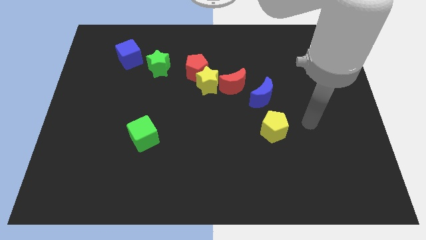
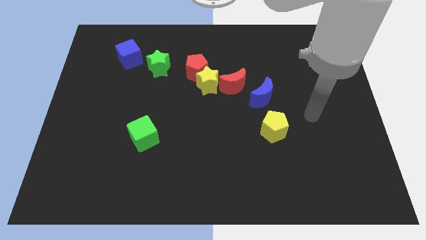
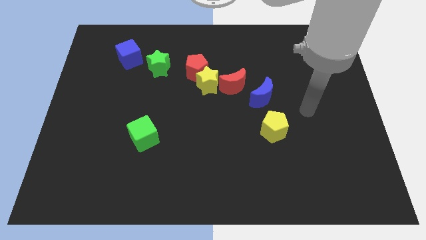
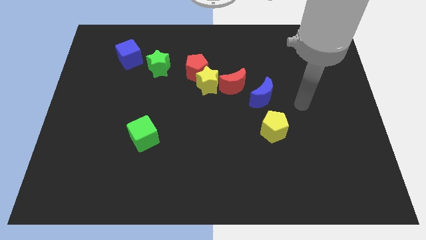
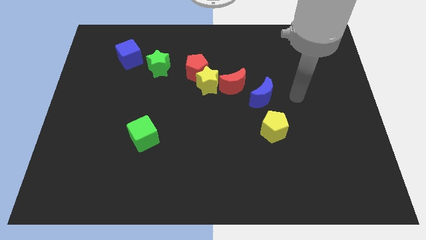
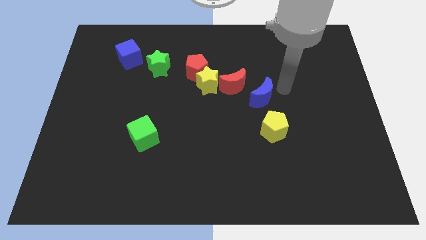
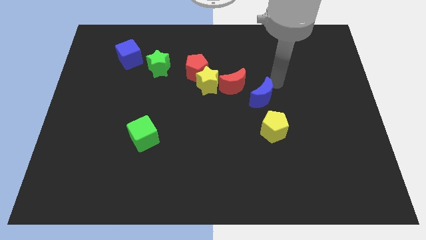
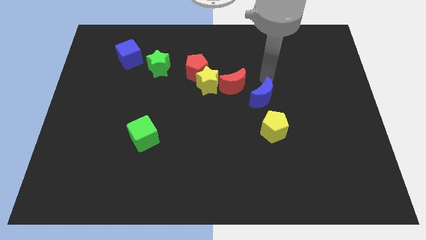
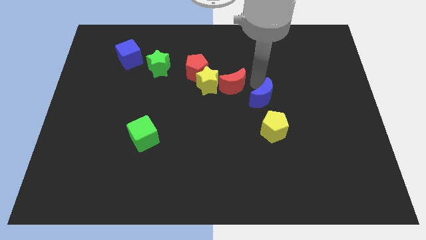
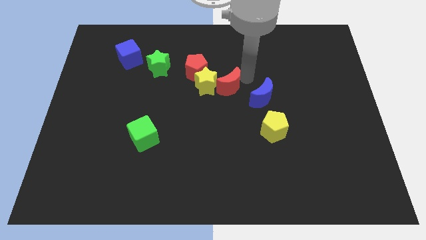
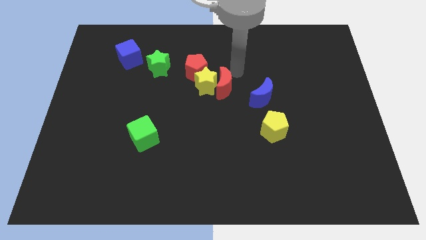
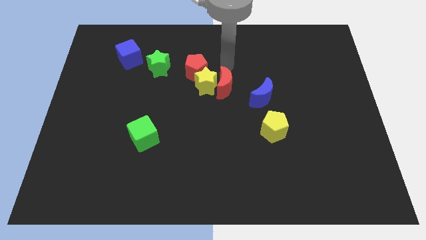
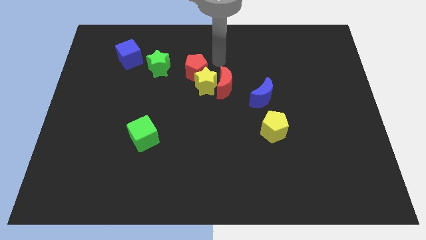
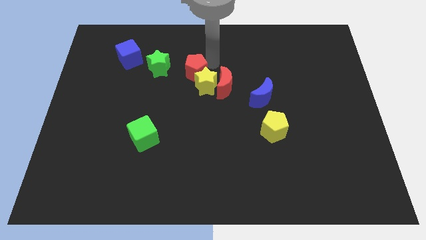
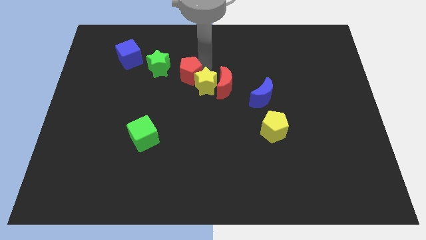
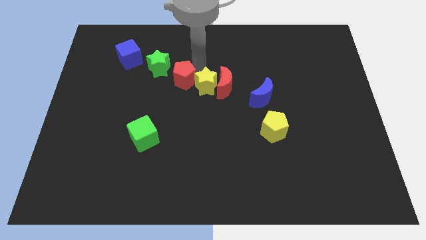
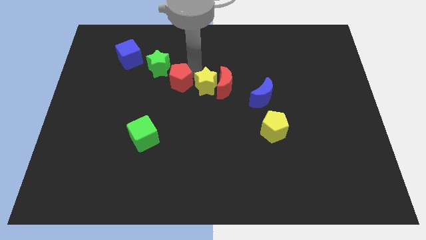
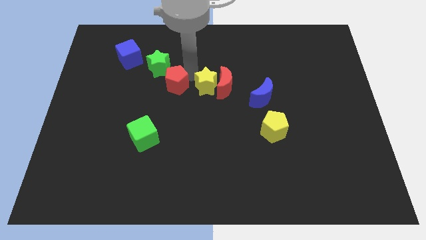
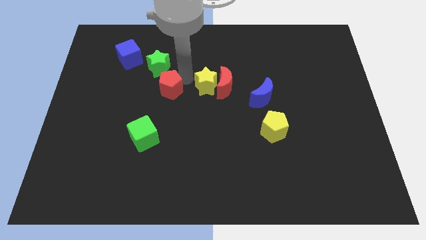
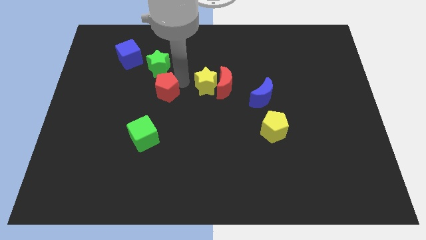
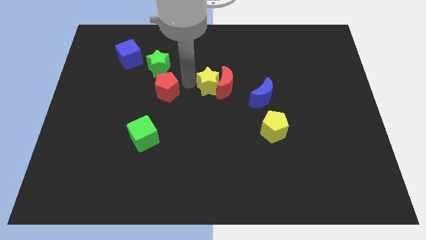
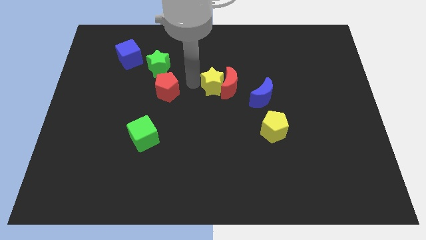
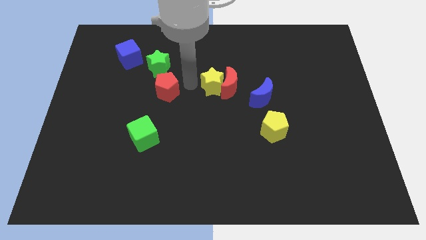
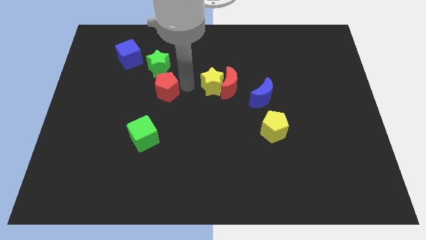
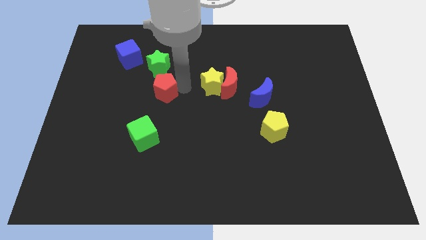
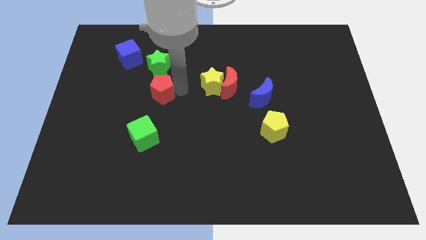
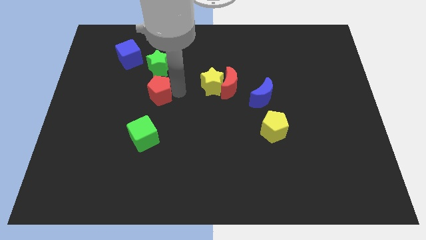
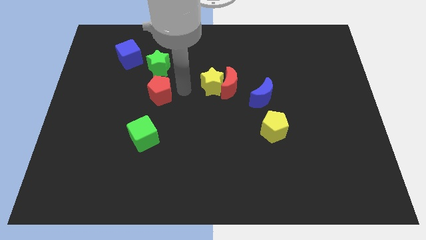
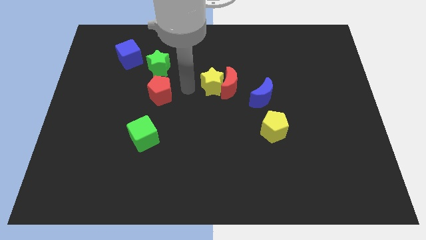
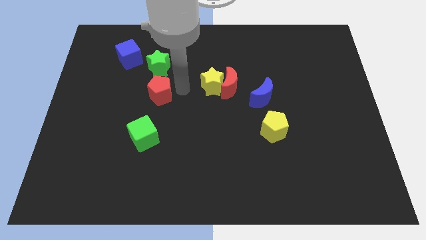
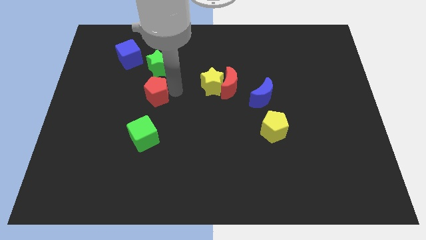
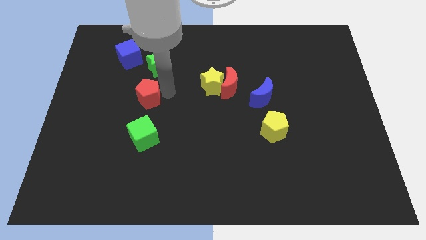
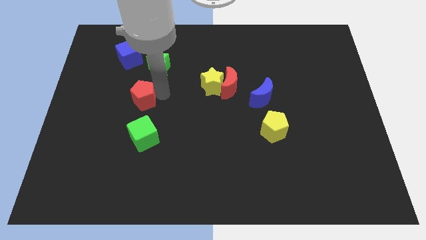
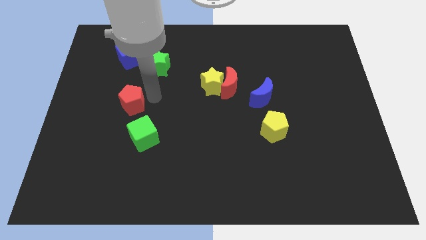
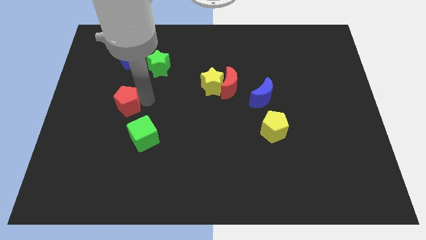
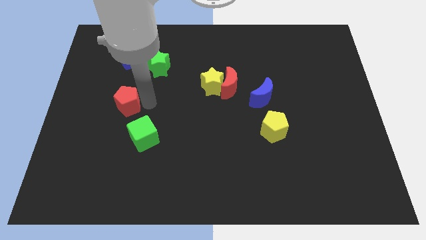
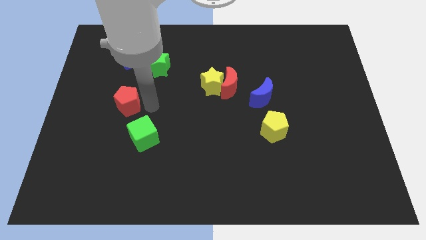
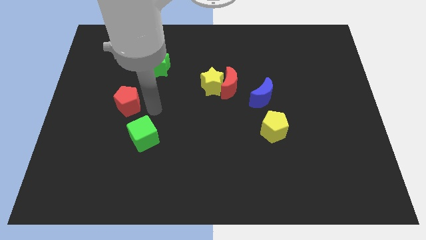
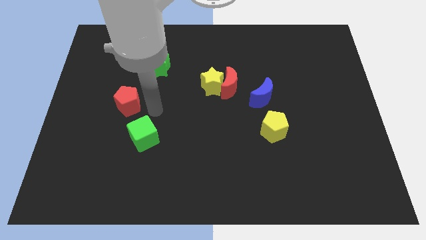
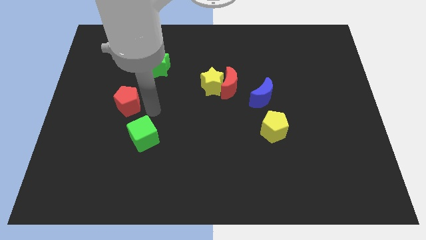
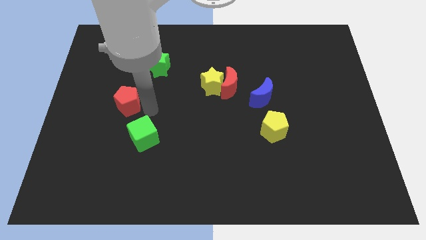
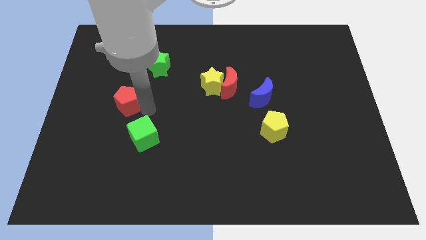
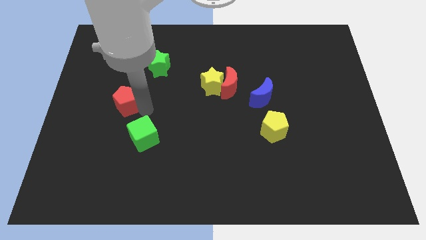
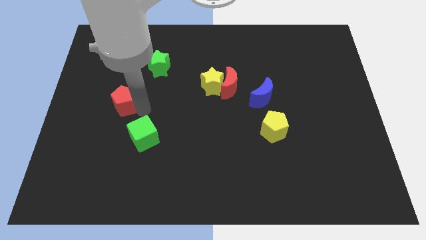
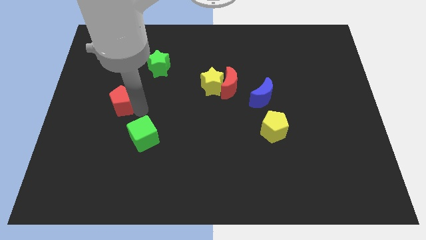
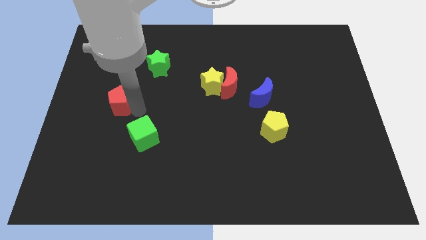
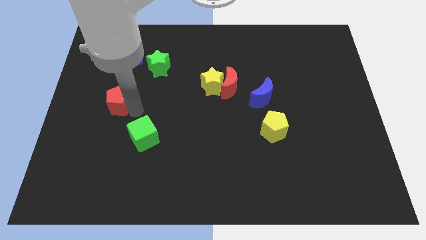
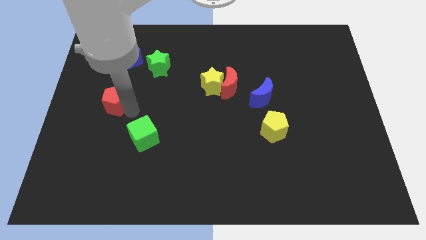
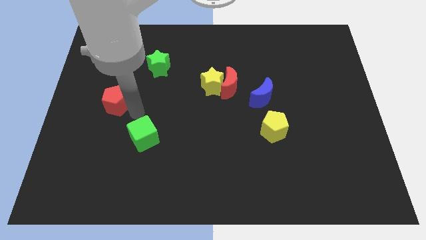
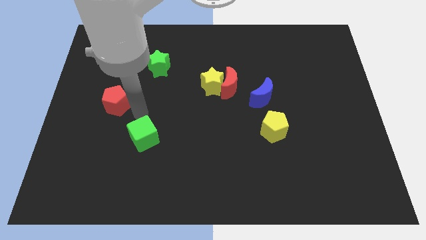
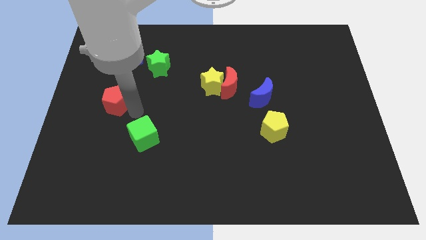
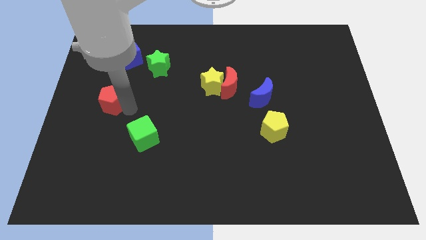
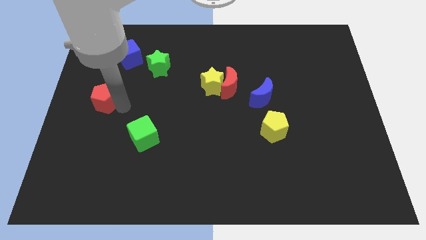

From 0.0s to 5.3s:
slide the red pentagon to the left side of the board

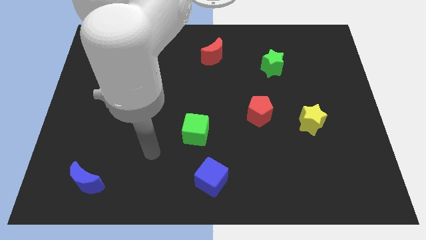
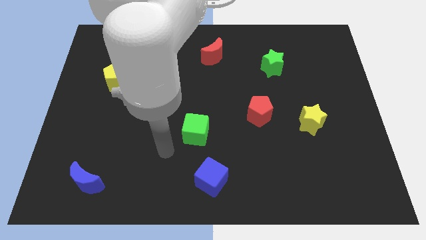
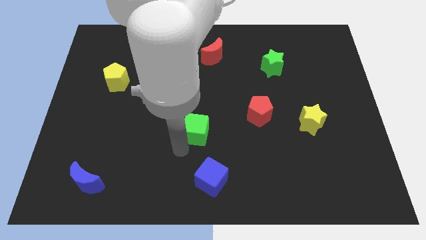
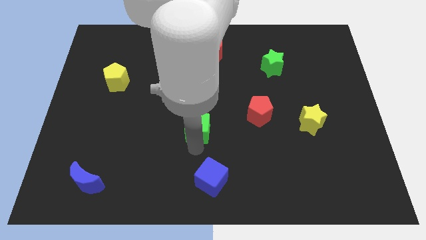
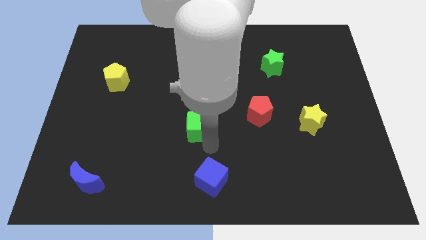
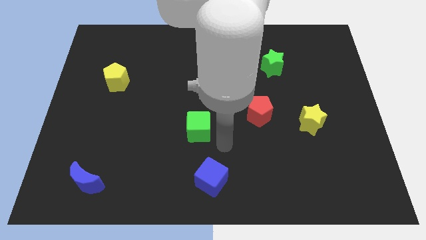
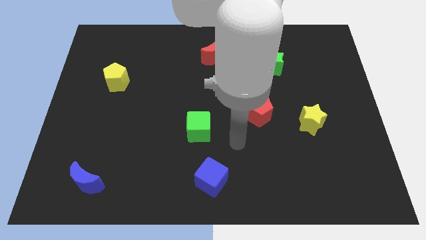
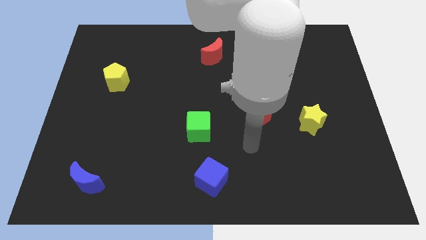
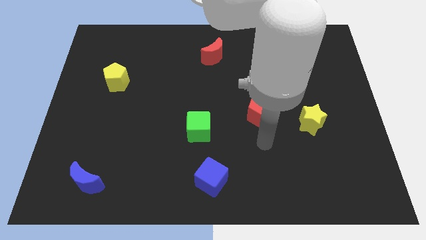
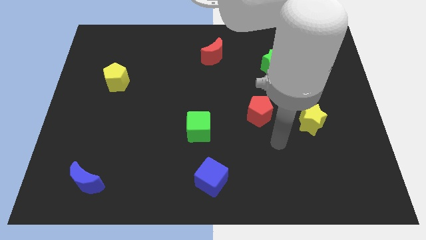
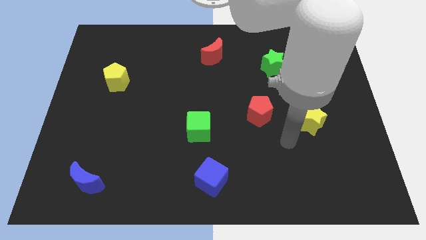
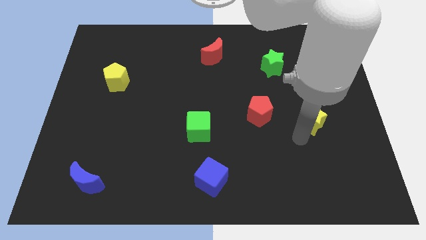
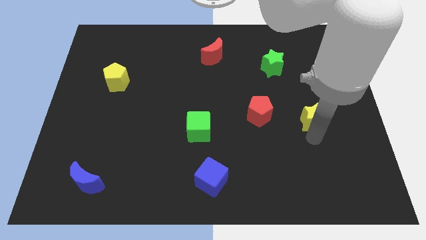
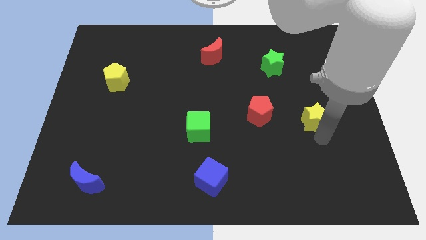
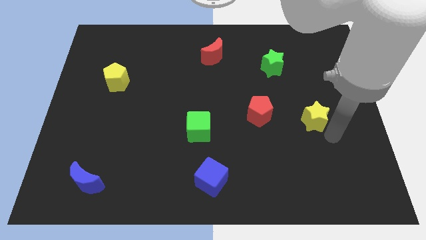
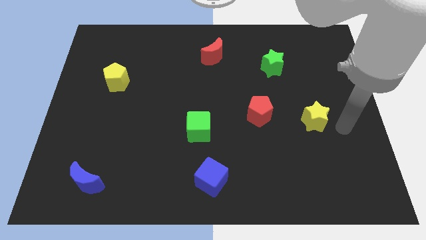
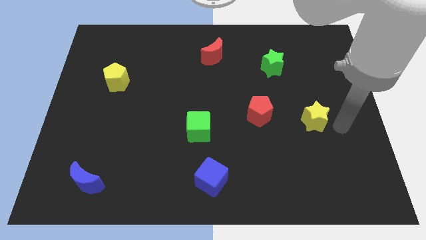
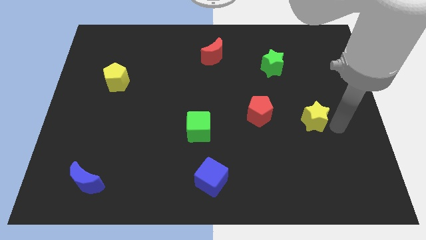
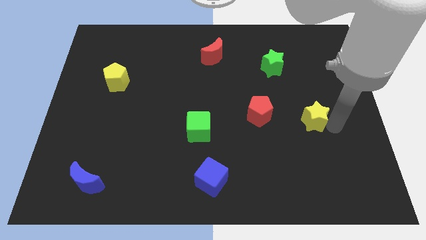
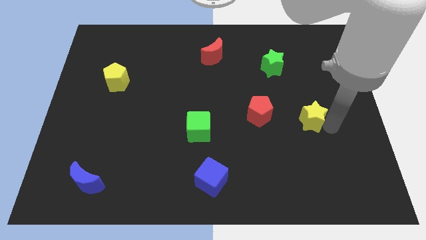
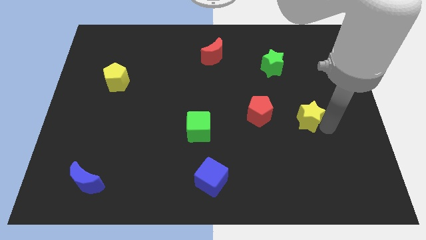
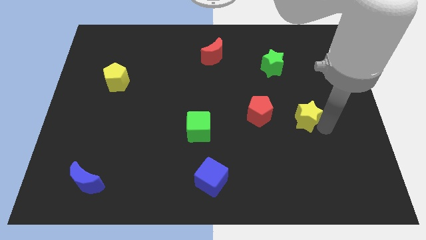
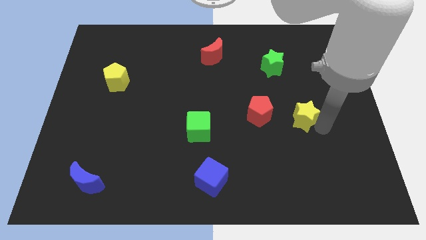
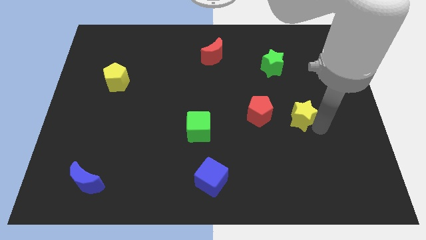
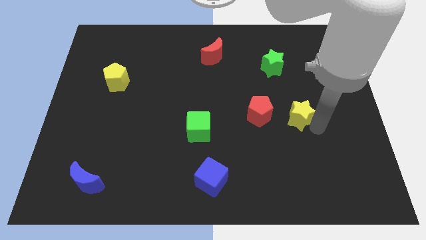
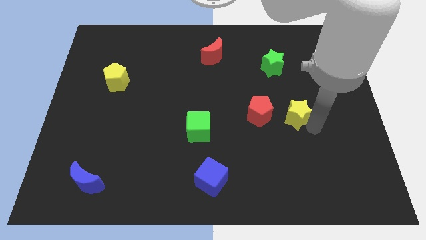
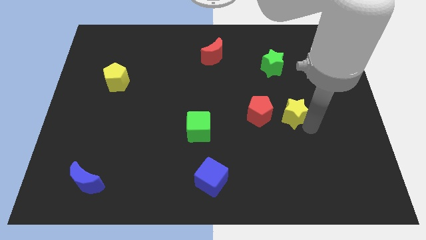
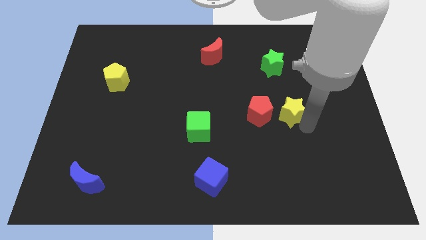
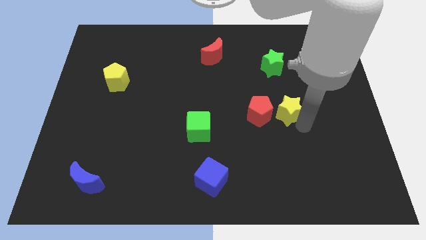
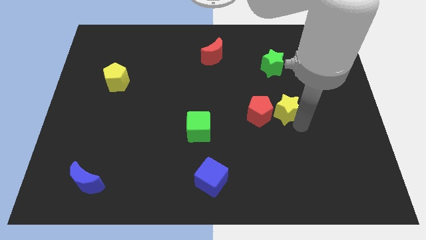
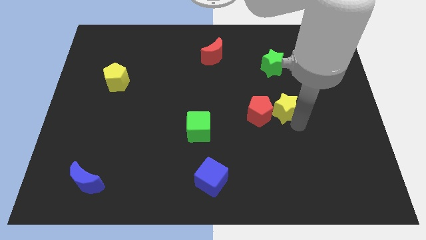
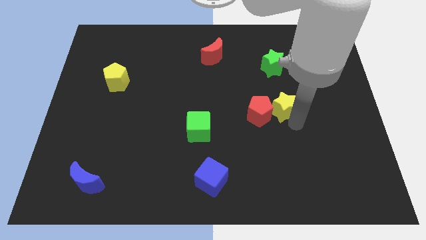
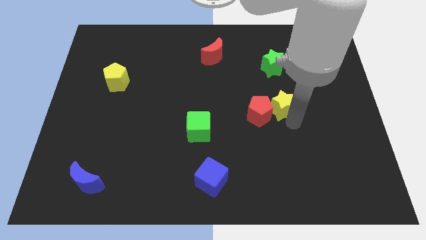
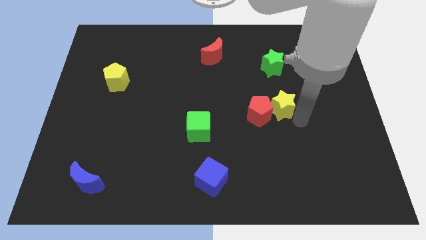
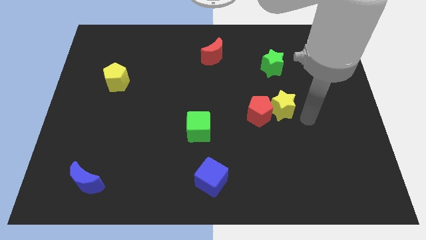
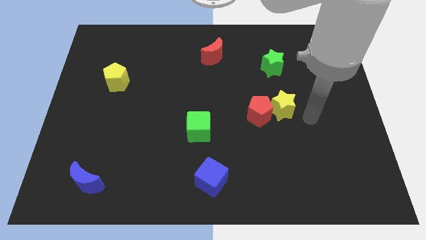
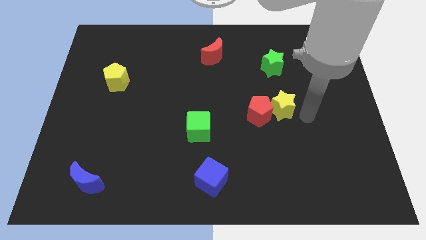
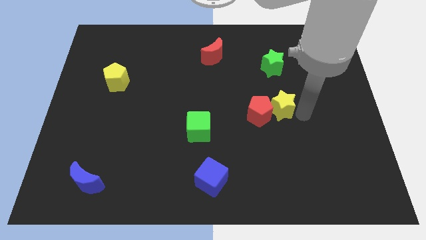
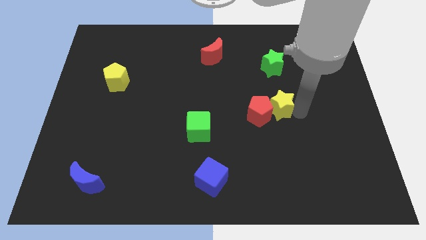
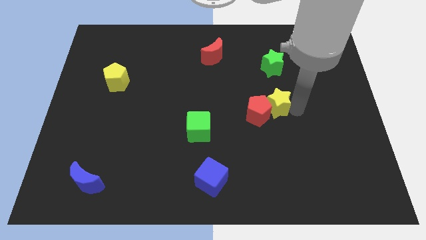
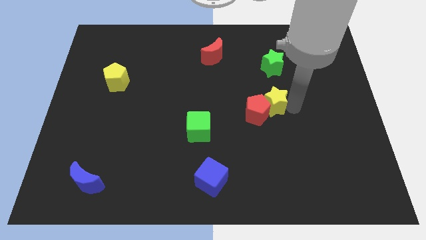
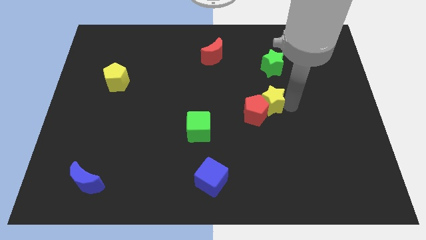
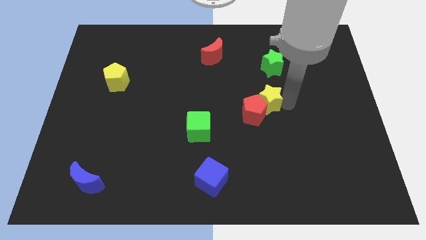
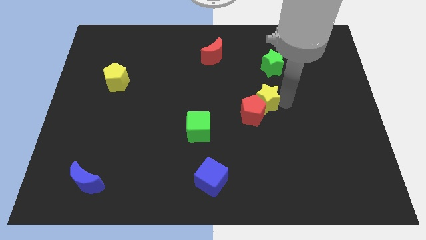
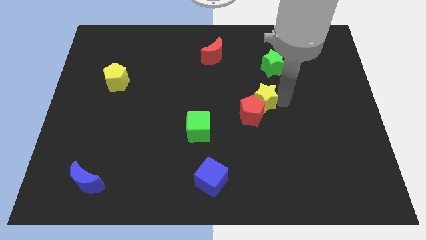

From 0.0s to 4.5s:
push the yellow star to the middle of the board
